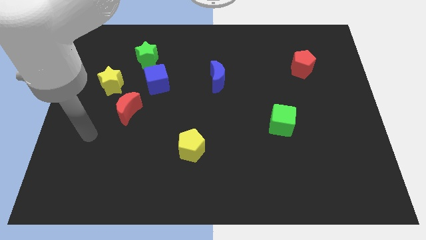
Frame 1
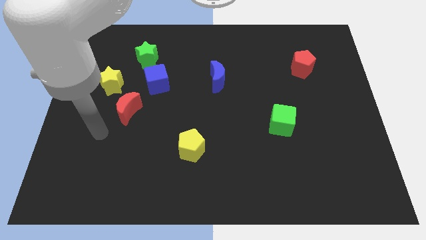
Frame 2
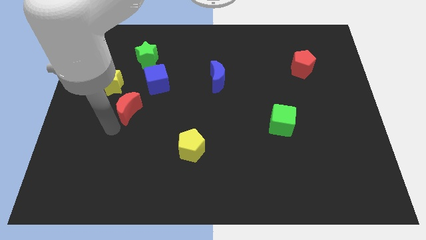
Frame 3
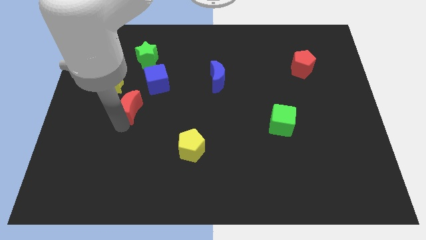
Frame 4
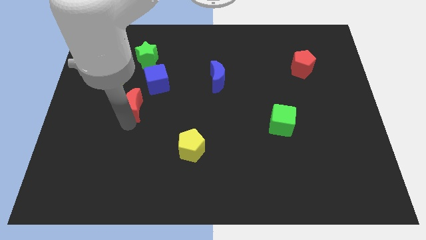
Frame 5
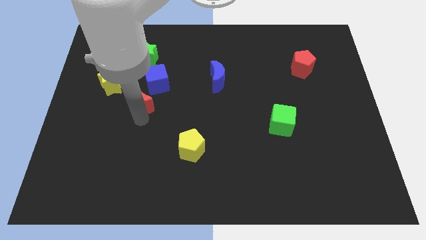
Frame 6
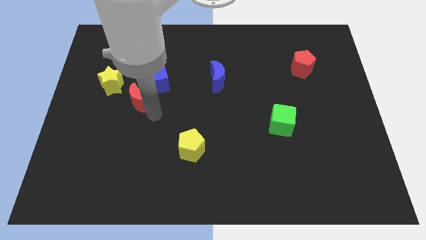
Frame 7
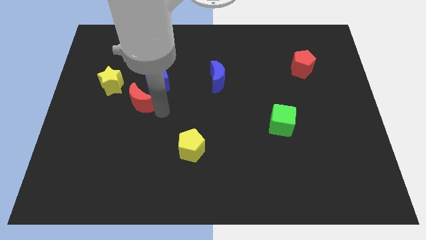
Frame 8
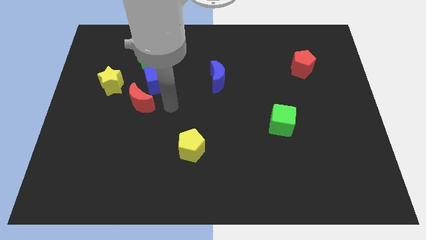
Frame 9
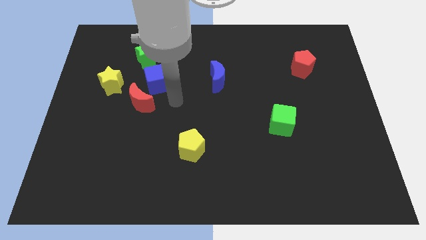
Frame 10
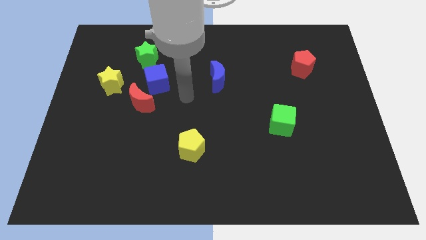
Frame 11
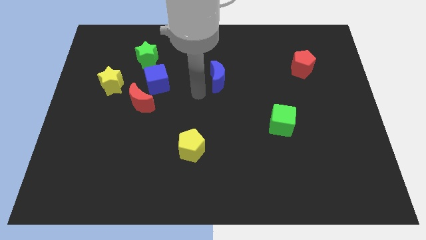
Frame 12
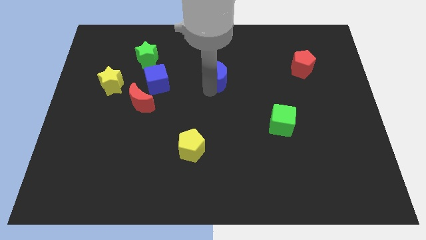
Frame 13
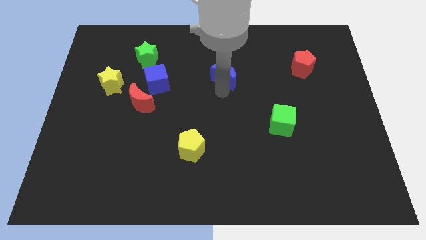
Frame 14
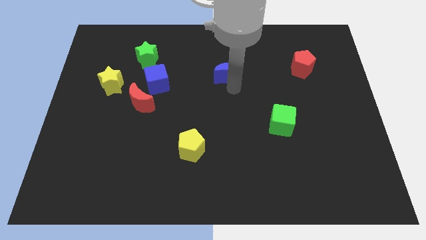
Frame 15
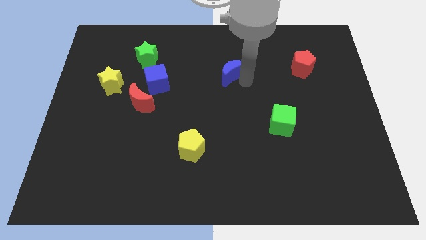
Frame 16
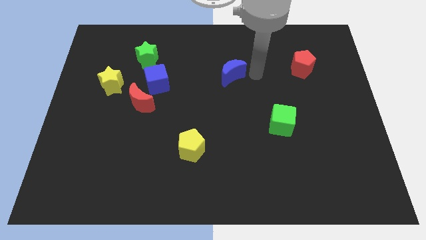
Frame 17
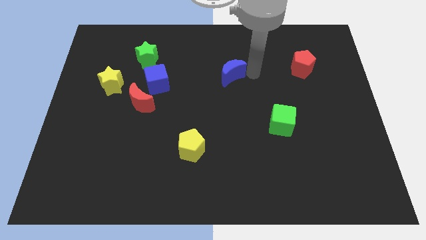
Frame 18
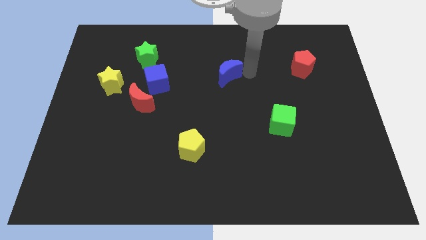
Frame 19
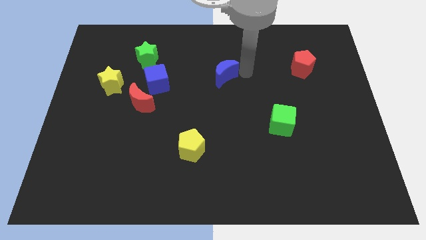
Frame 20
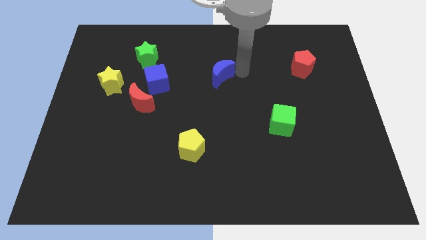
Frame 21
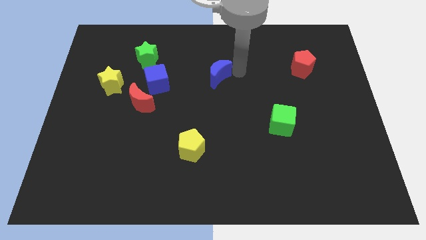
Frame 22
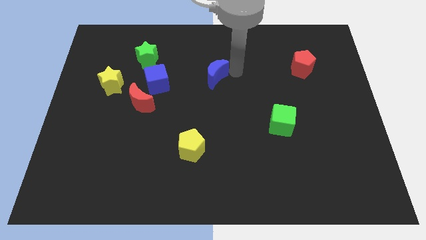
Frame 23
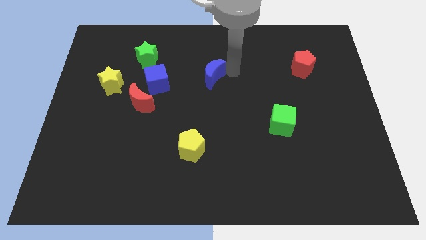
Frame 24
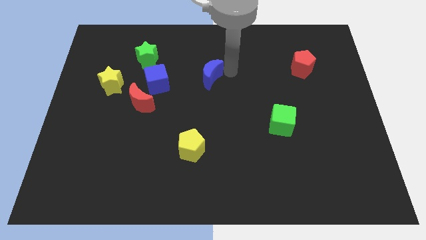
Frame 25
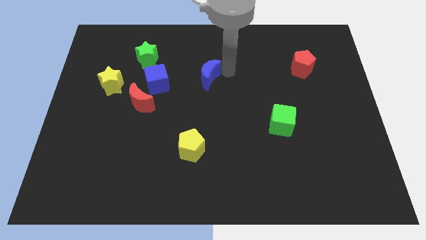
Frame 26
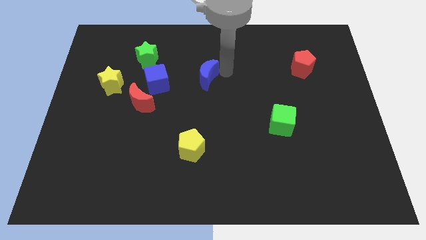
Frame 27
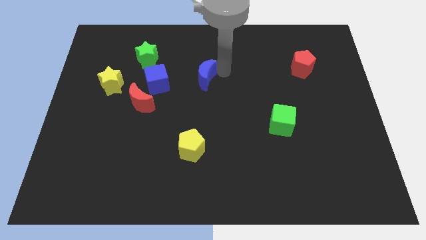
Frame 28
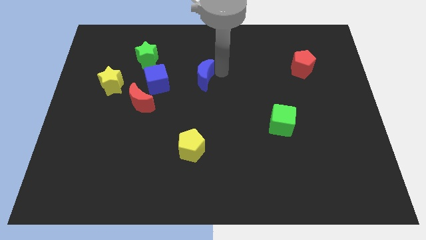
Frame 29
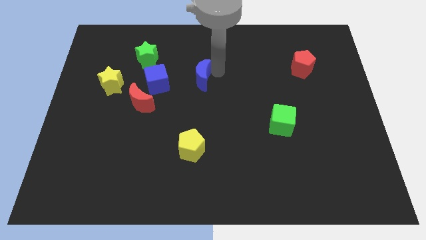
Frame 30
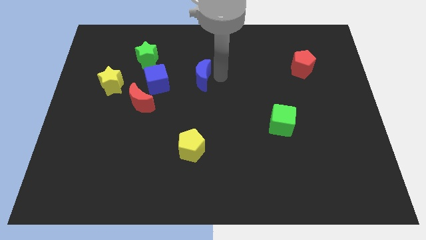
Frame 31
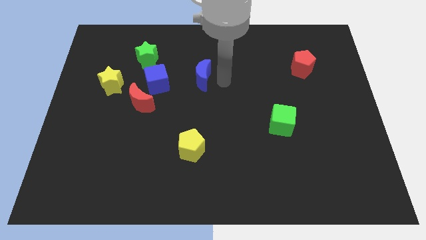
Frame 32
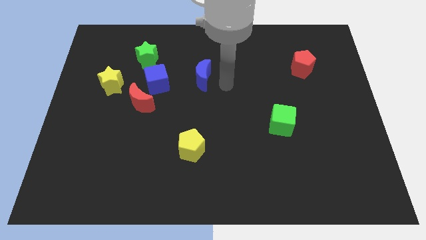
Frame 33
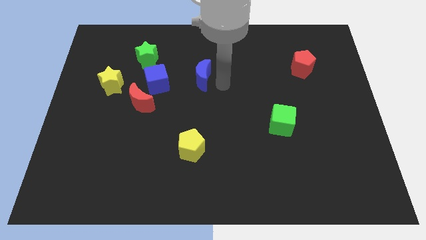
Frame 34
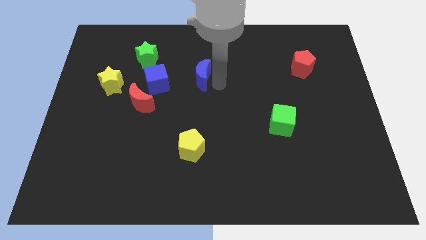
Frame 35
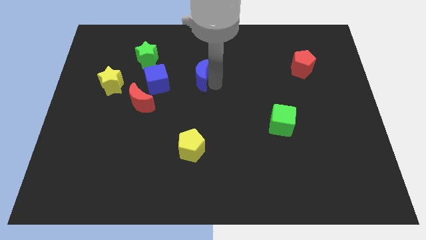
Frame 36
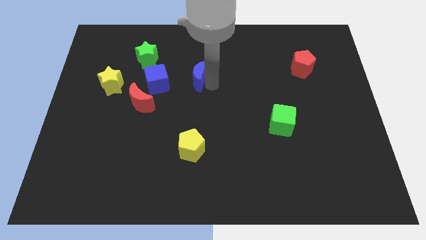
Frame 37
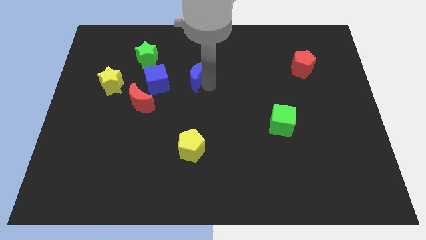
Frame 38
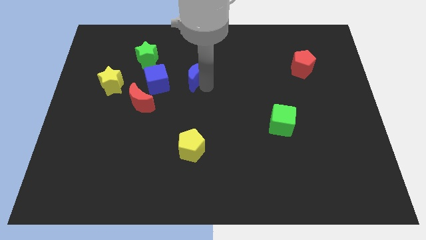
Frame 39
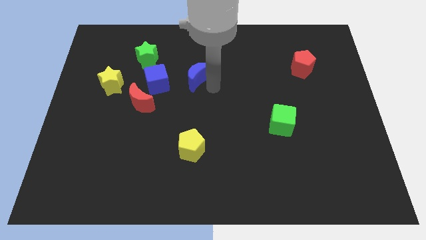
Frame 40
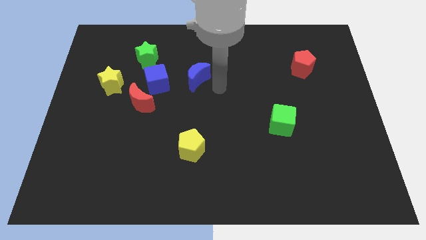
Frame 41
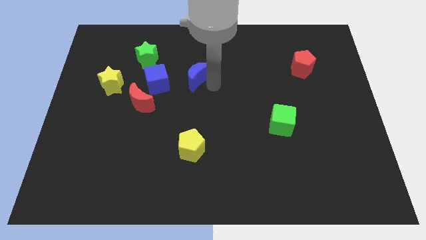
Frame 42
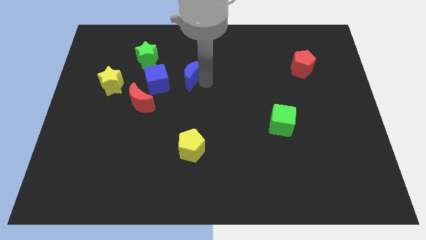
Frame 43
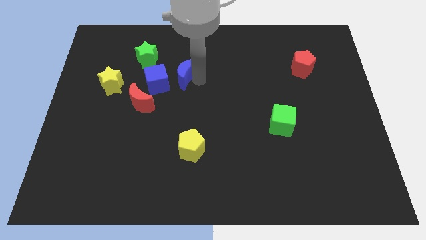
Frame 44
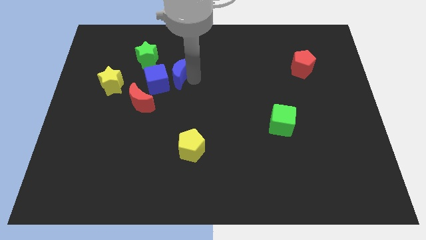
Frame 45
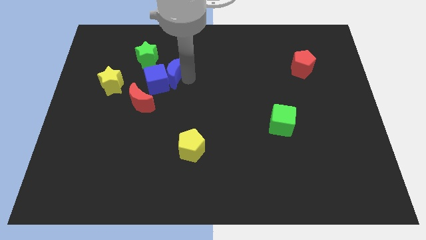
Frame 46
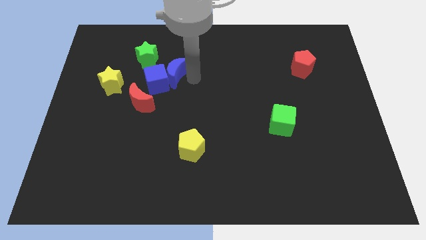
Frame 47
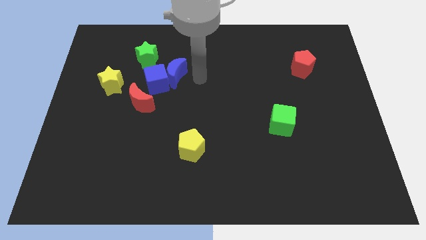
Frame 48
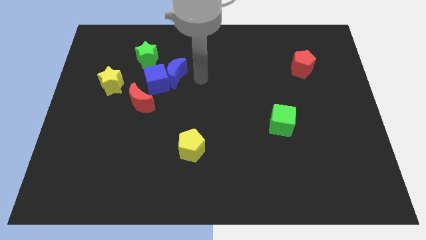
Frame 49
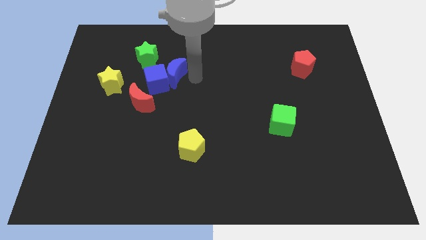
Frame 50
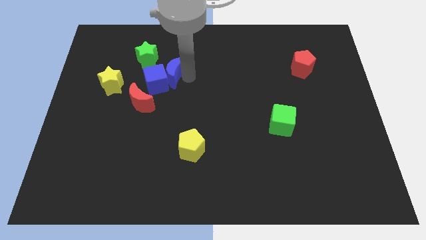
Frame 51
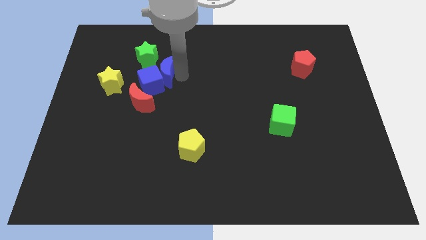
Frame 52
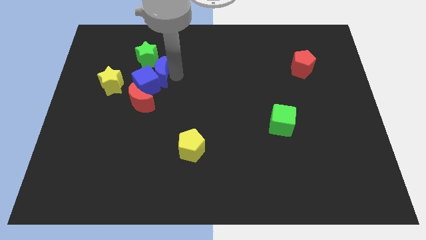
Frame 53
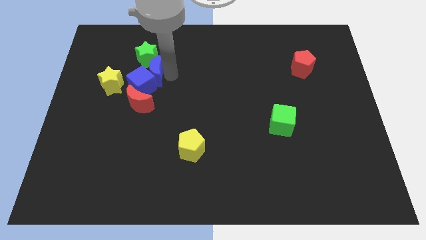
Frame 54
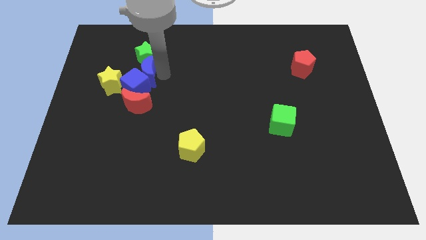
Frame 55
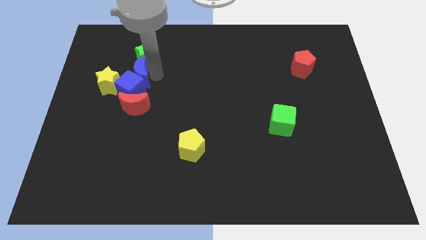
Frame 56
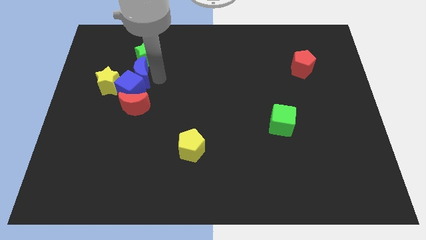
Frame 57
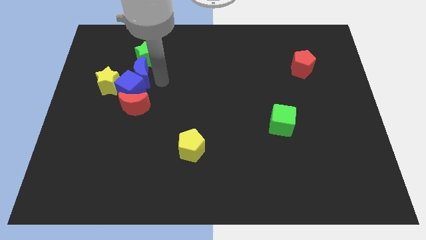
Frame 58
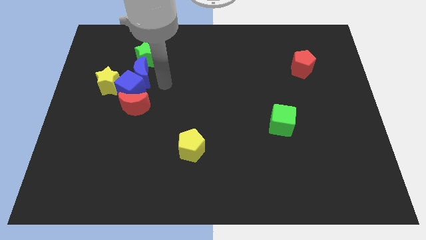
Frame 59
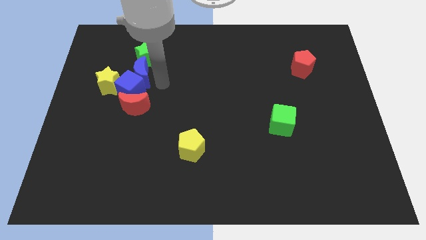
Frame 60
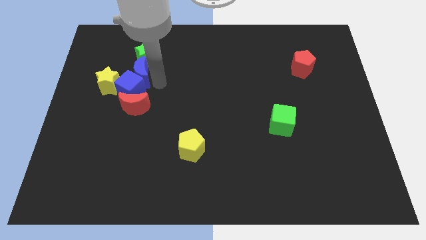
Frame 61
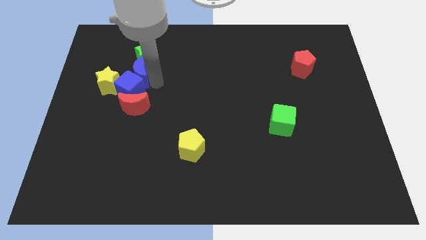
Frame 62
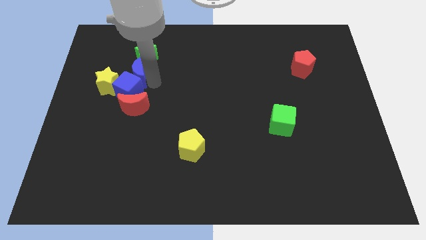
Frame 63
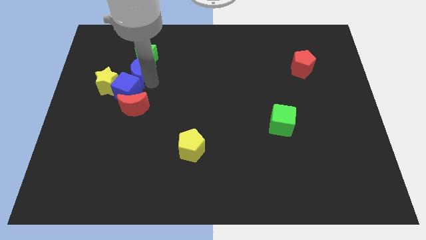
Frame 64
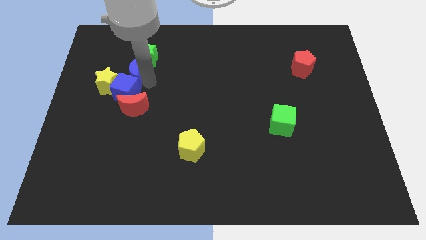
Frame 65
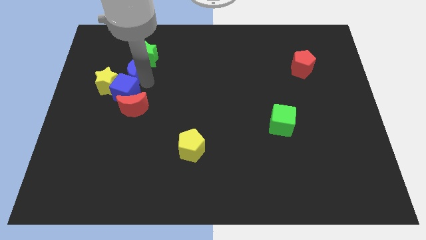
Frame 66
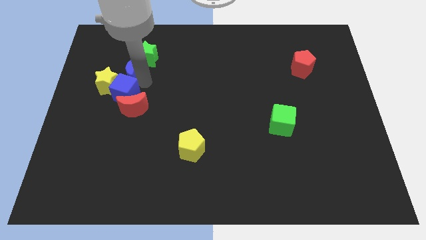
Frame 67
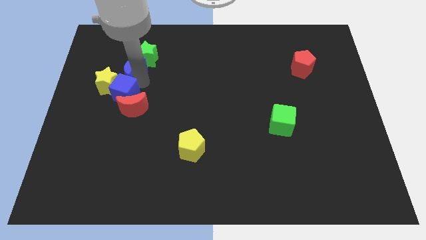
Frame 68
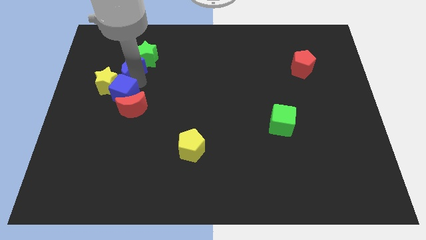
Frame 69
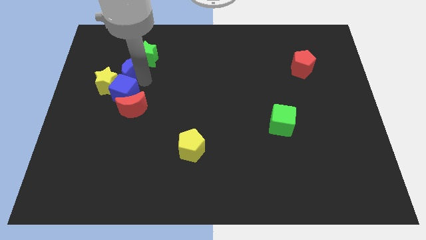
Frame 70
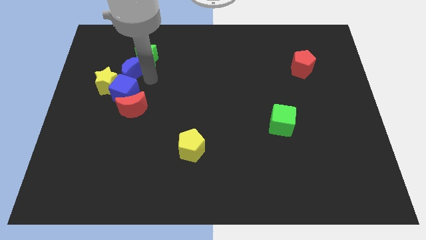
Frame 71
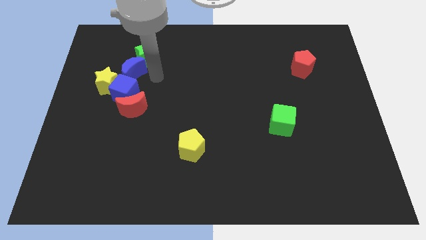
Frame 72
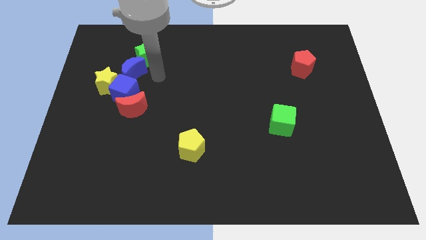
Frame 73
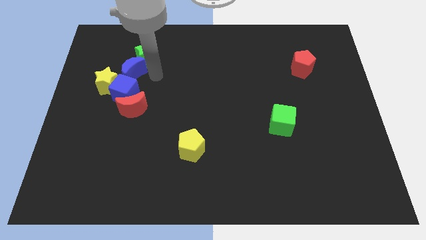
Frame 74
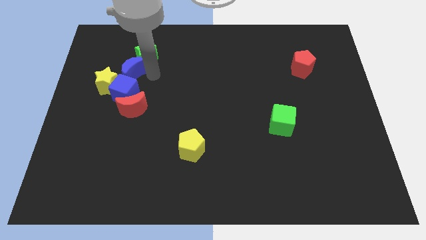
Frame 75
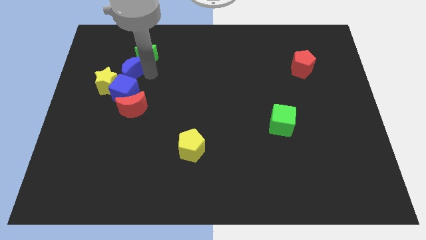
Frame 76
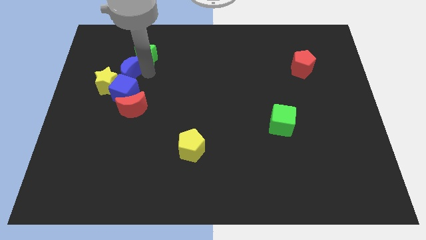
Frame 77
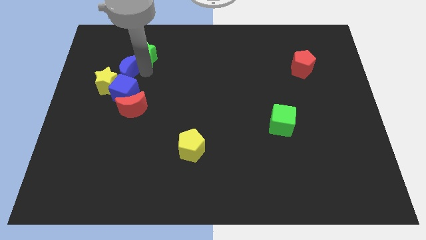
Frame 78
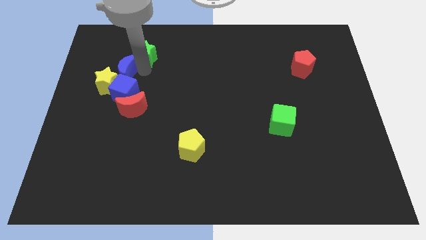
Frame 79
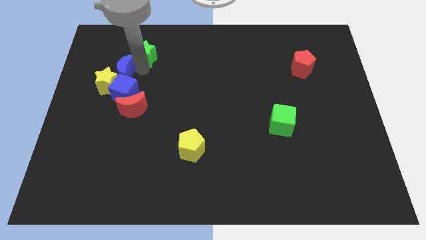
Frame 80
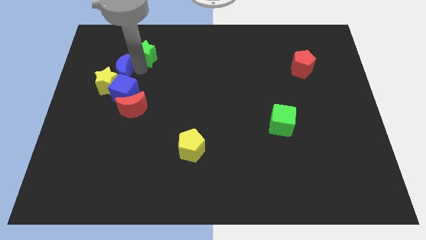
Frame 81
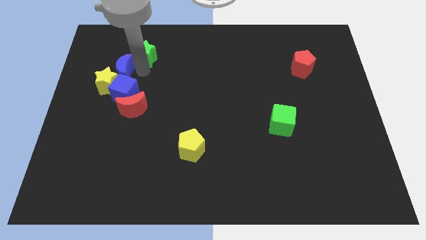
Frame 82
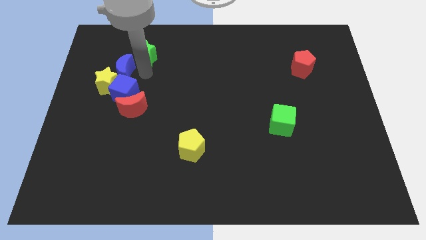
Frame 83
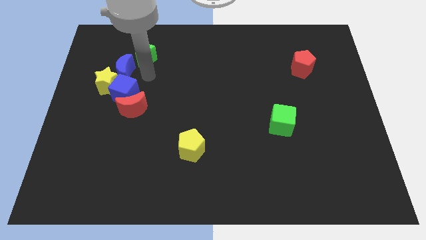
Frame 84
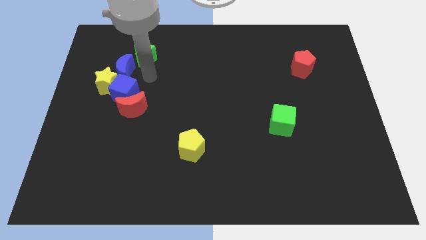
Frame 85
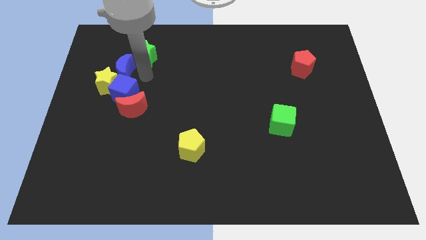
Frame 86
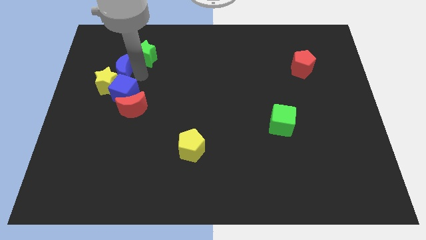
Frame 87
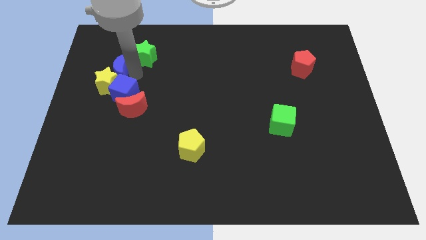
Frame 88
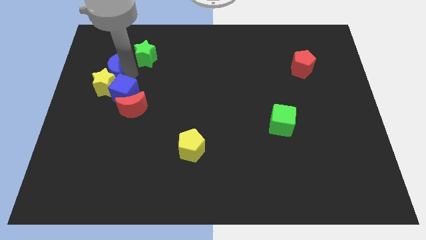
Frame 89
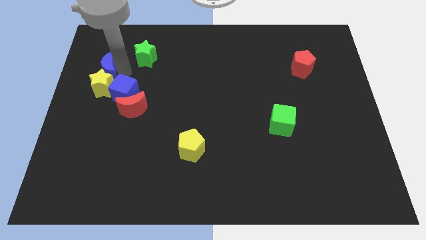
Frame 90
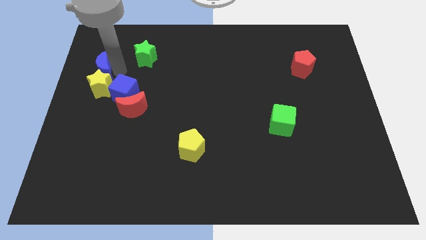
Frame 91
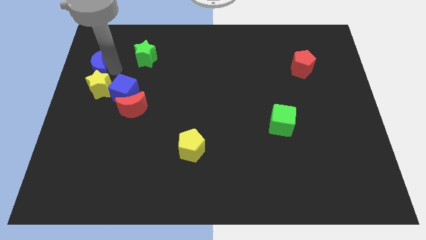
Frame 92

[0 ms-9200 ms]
slide the blue moon to the left side
